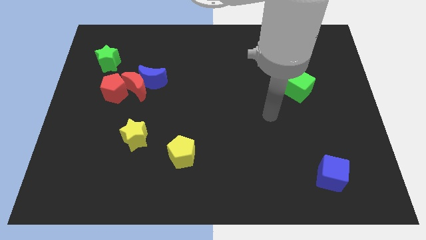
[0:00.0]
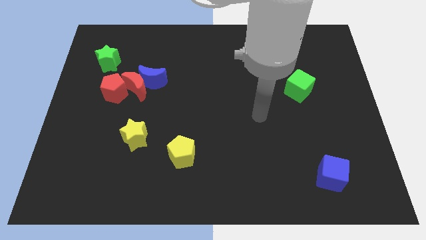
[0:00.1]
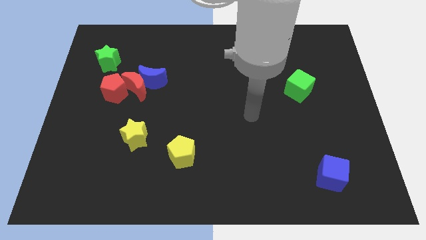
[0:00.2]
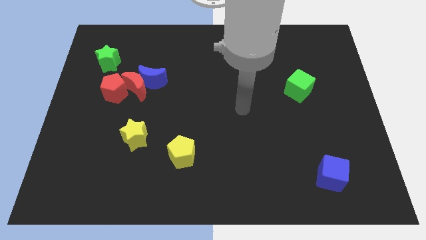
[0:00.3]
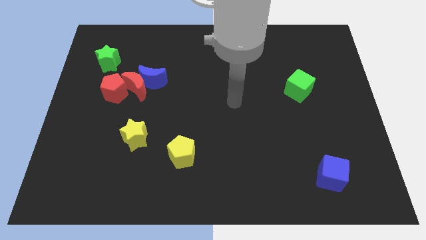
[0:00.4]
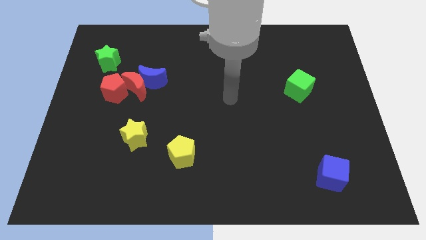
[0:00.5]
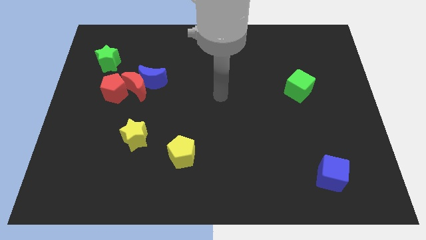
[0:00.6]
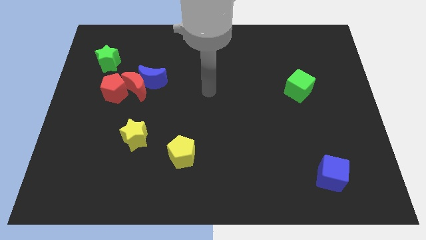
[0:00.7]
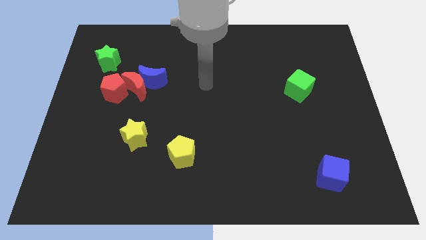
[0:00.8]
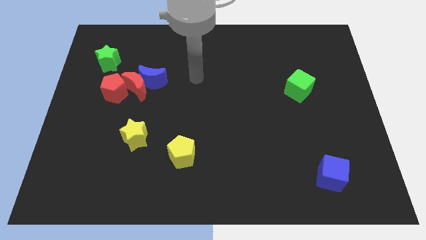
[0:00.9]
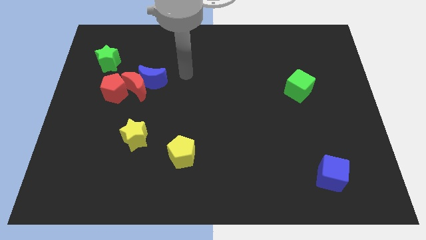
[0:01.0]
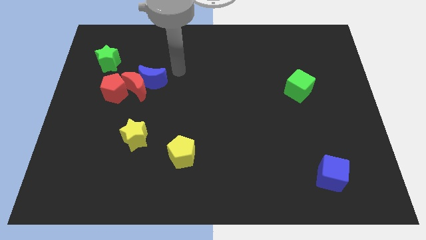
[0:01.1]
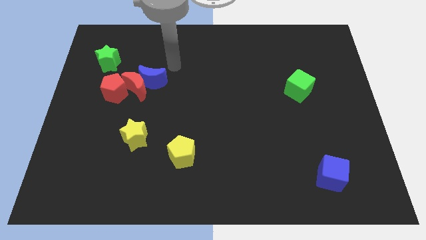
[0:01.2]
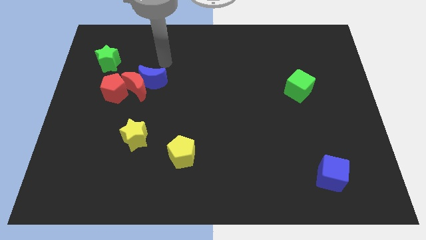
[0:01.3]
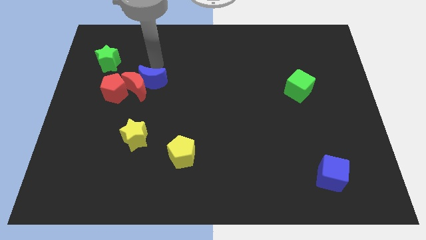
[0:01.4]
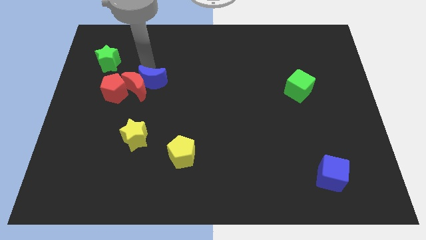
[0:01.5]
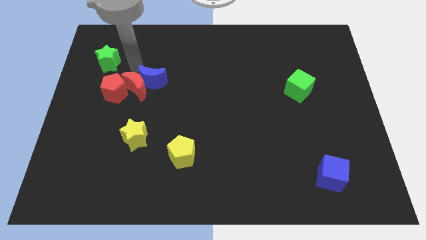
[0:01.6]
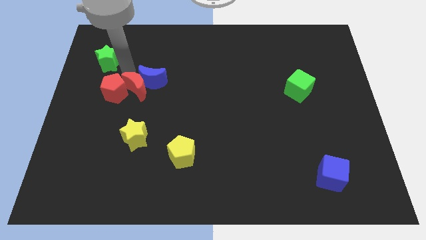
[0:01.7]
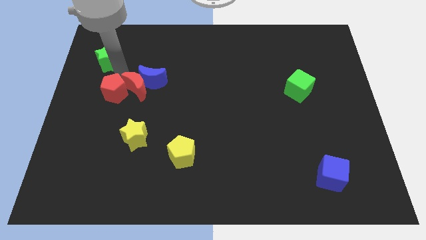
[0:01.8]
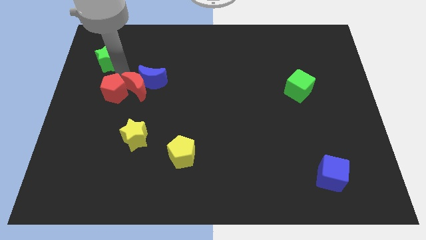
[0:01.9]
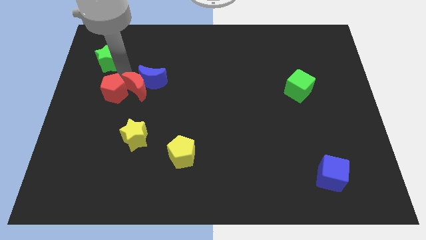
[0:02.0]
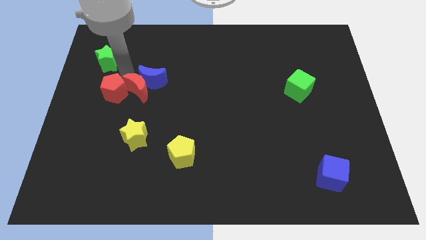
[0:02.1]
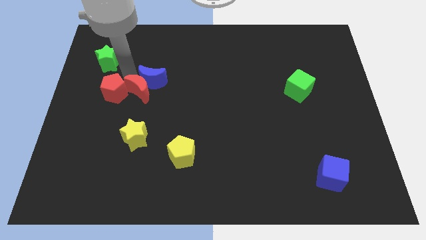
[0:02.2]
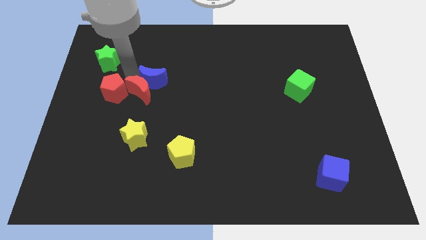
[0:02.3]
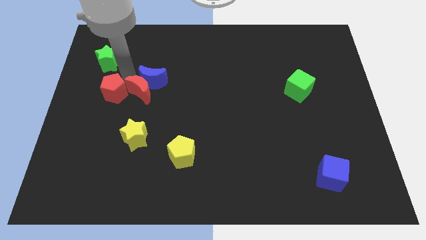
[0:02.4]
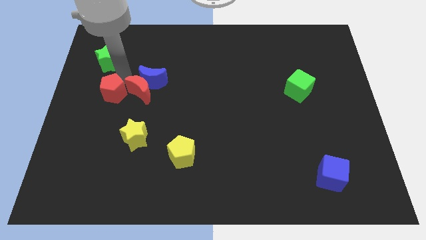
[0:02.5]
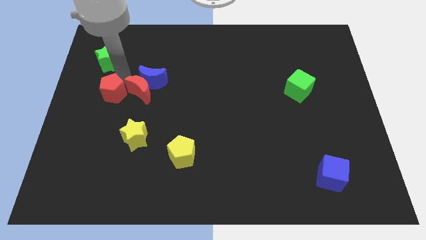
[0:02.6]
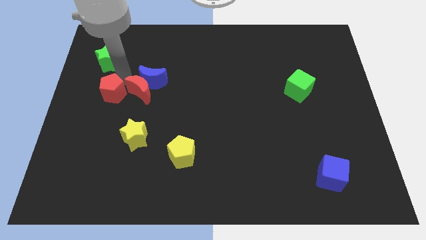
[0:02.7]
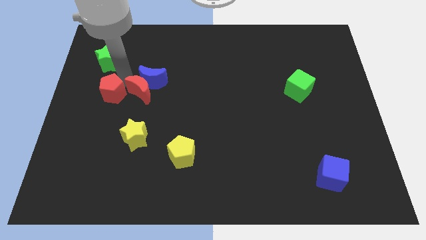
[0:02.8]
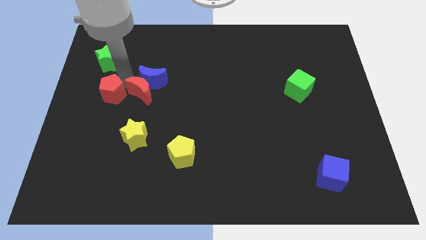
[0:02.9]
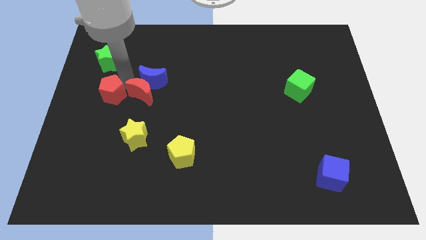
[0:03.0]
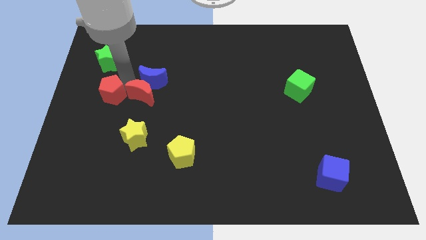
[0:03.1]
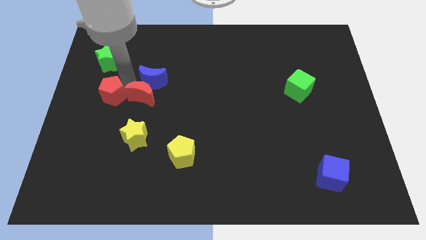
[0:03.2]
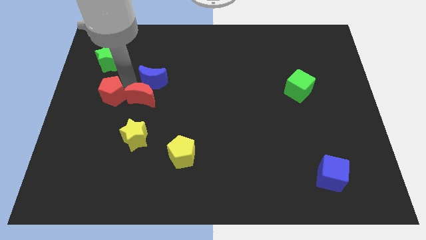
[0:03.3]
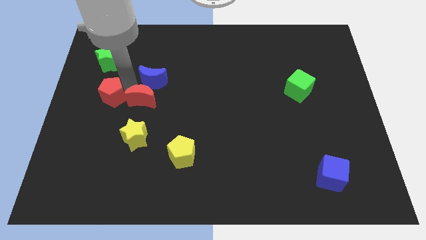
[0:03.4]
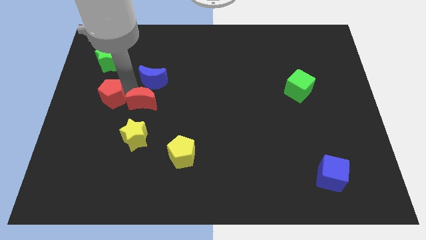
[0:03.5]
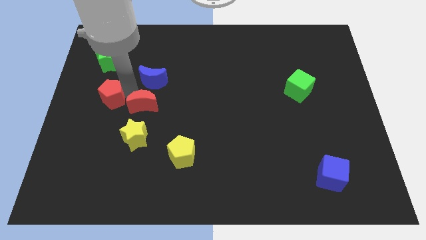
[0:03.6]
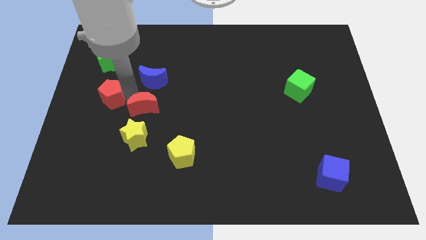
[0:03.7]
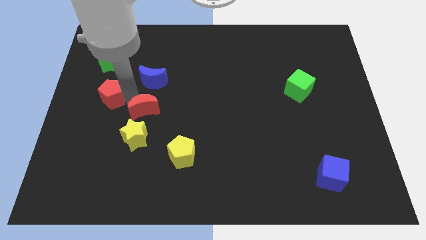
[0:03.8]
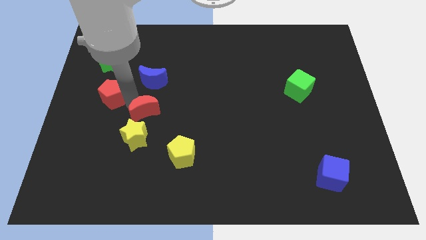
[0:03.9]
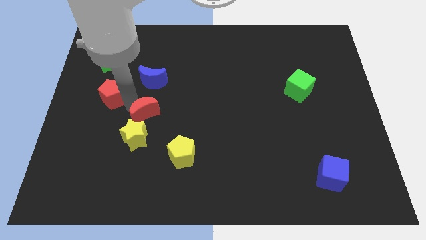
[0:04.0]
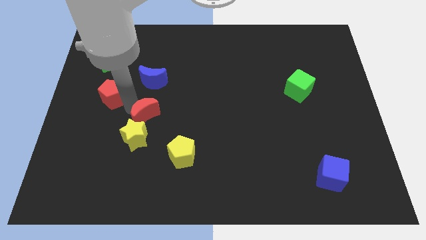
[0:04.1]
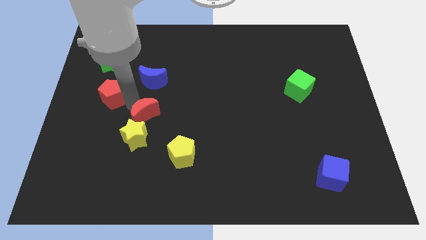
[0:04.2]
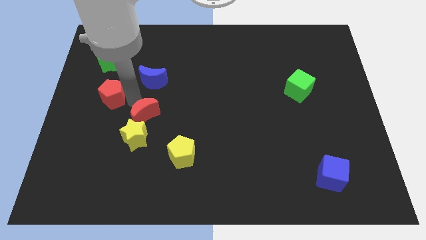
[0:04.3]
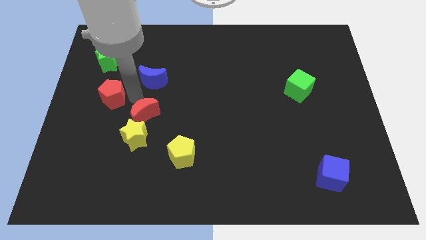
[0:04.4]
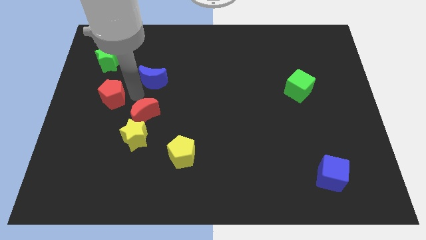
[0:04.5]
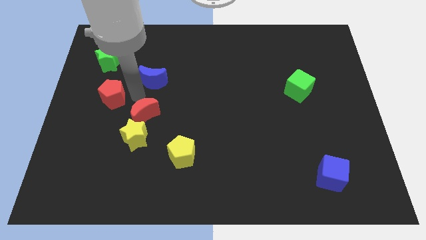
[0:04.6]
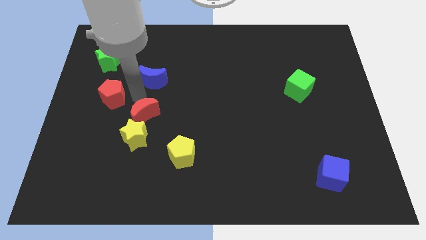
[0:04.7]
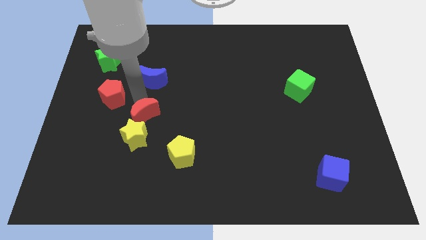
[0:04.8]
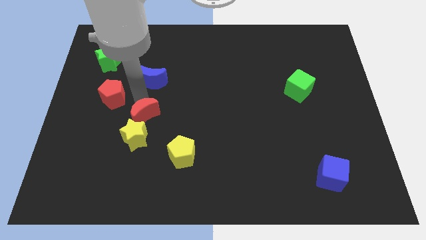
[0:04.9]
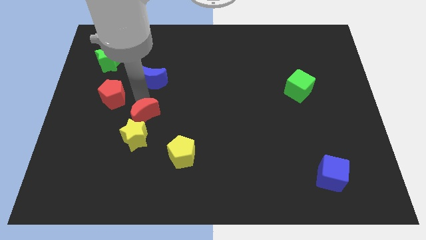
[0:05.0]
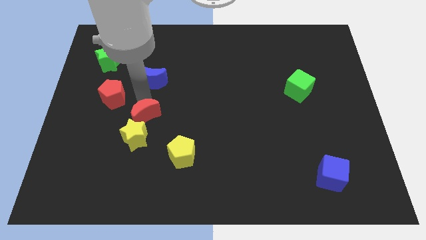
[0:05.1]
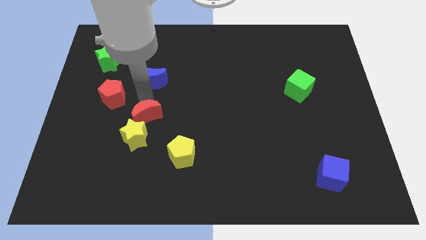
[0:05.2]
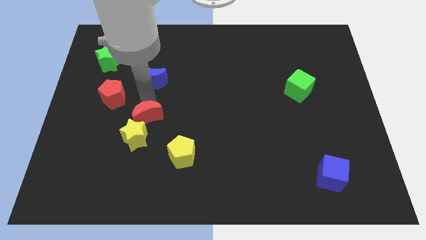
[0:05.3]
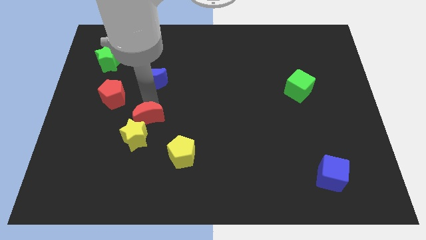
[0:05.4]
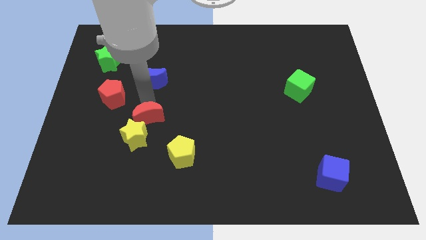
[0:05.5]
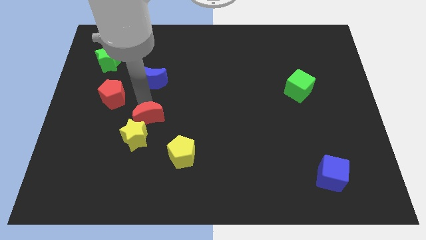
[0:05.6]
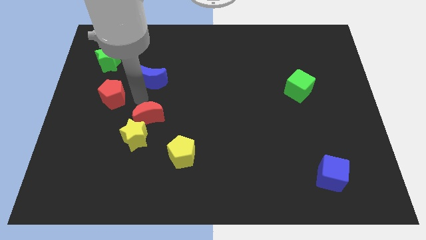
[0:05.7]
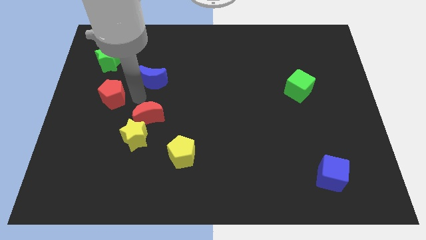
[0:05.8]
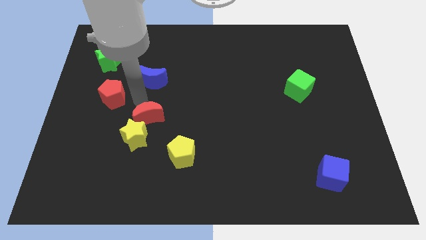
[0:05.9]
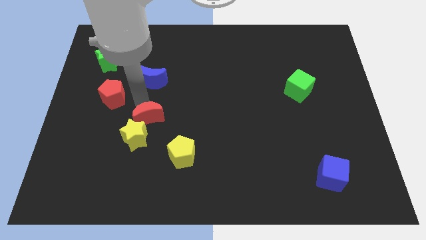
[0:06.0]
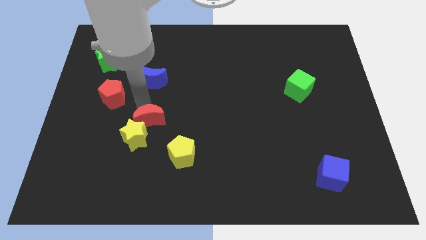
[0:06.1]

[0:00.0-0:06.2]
move the red moon away from the blue moon and red pentagon

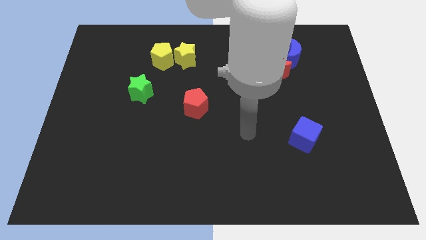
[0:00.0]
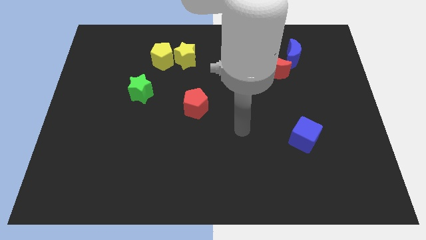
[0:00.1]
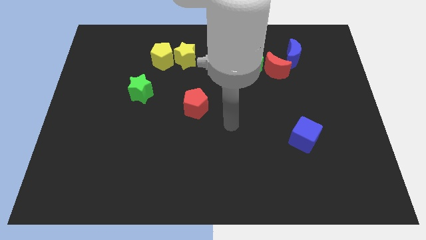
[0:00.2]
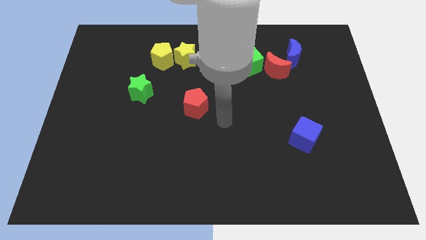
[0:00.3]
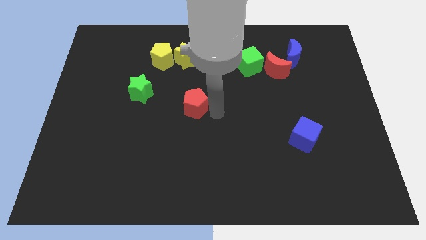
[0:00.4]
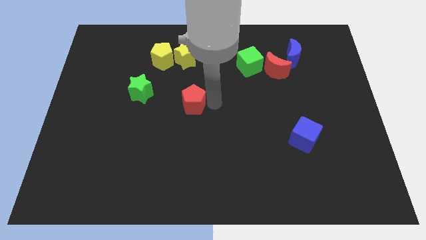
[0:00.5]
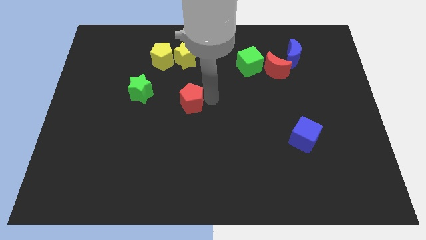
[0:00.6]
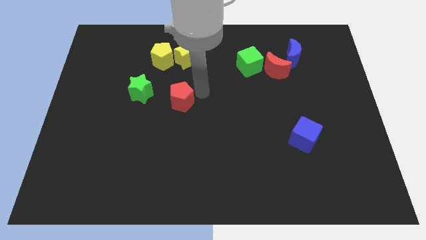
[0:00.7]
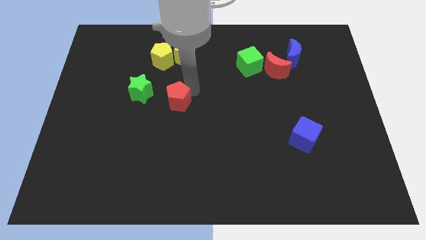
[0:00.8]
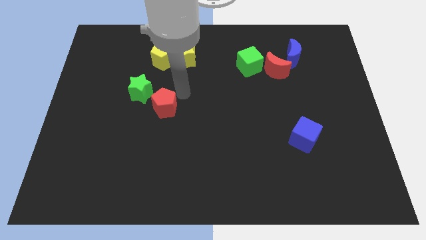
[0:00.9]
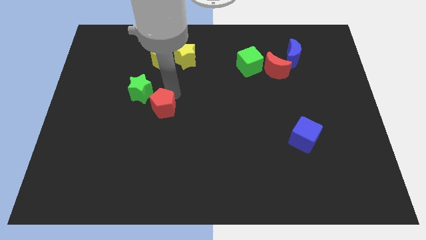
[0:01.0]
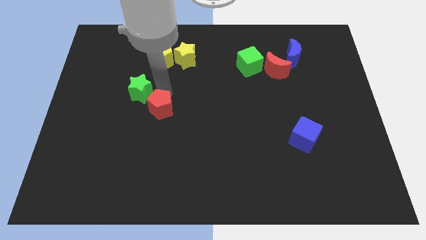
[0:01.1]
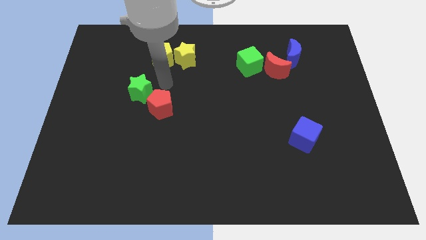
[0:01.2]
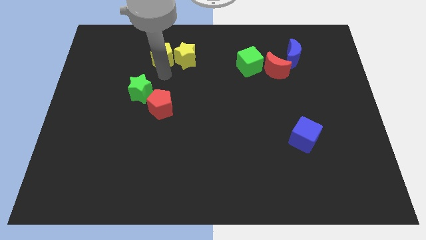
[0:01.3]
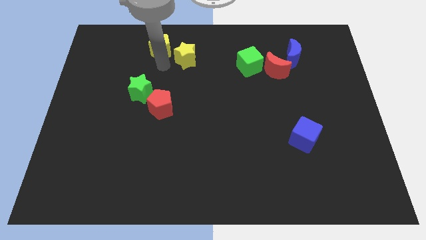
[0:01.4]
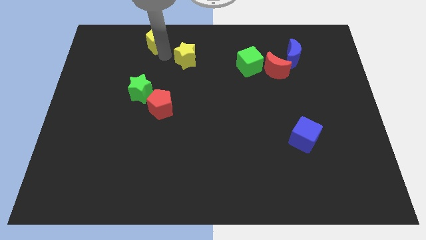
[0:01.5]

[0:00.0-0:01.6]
move the yellow star away from the yellow pentagon

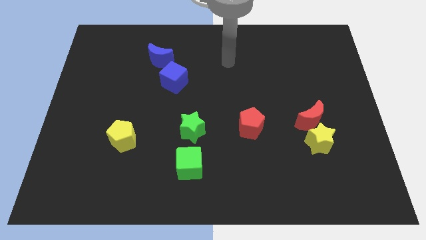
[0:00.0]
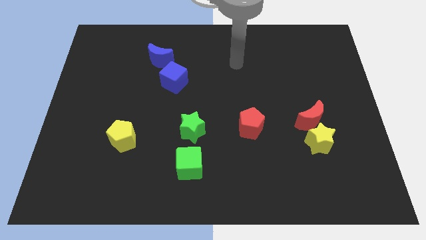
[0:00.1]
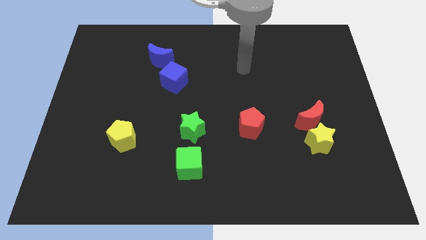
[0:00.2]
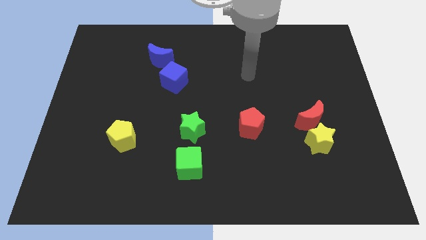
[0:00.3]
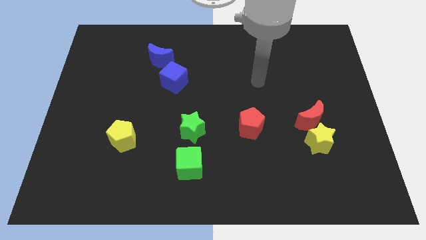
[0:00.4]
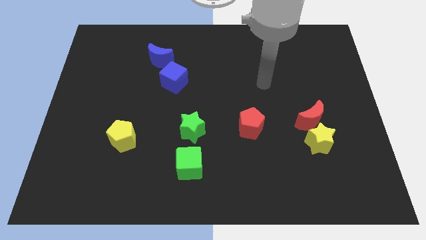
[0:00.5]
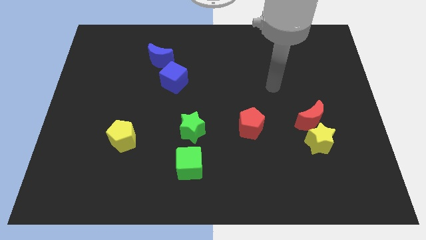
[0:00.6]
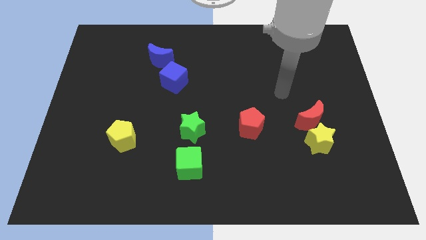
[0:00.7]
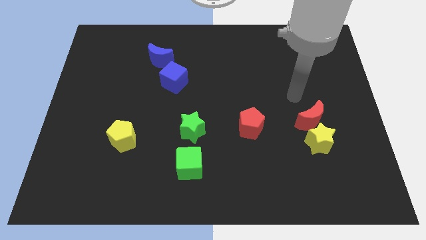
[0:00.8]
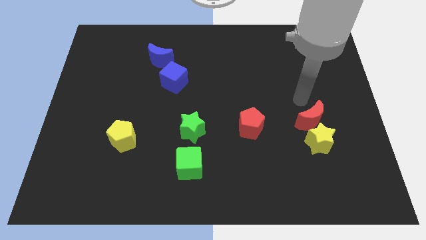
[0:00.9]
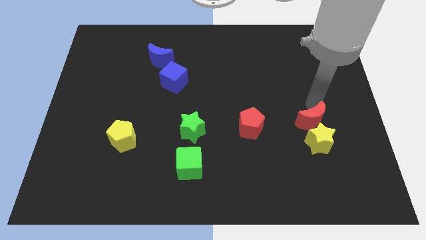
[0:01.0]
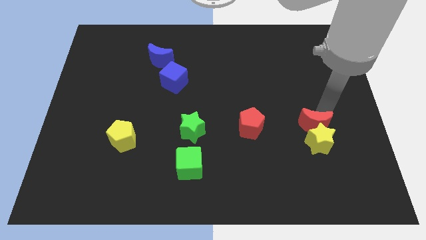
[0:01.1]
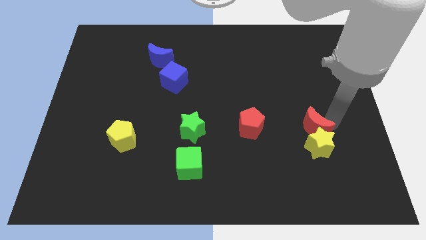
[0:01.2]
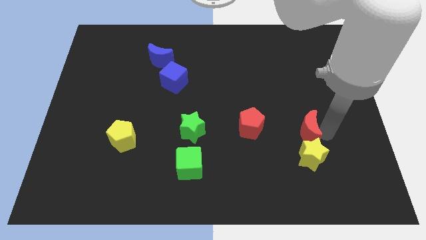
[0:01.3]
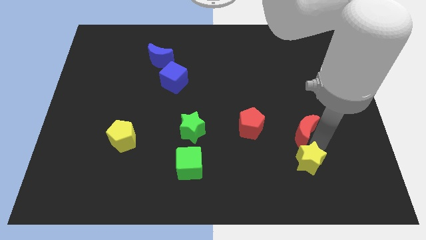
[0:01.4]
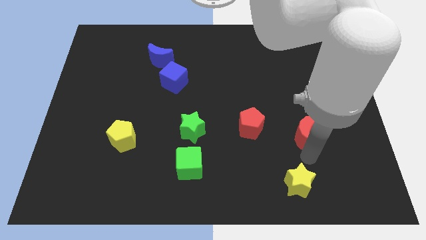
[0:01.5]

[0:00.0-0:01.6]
separate the red moon from the yellow star
